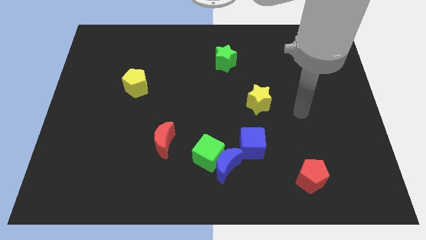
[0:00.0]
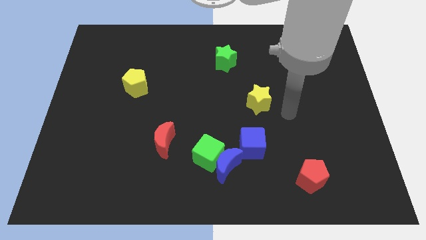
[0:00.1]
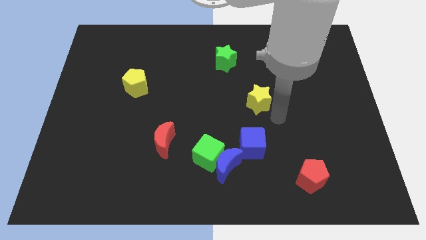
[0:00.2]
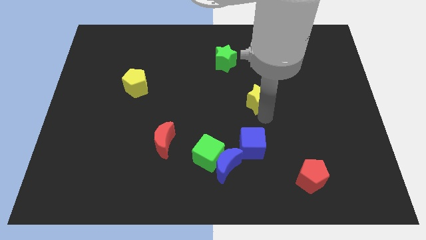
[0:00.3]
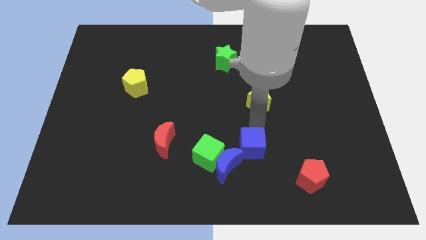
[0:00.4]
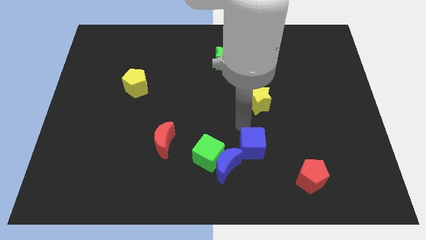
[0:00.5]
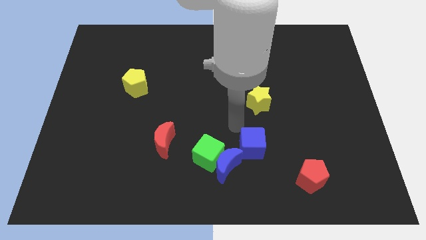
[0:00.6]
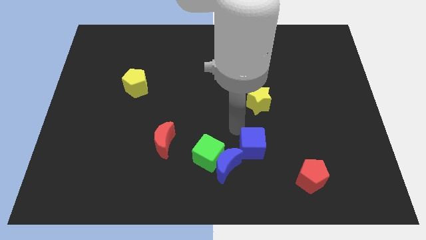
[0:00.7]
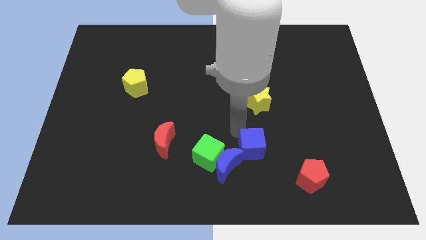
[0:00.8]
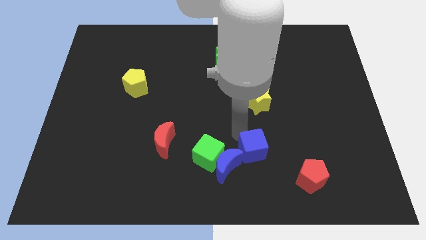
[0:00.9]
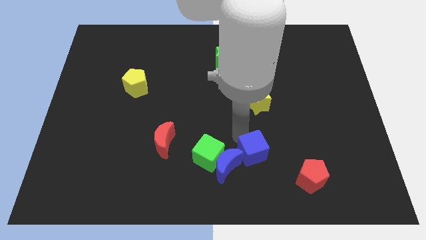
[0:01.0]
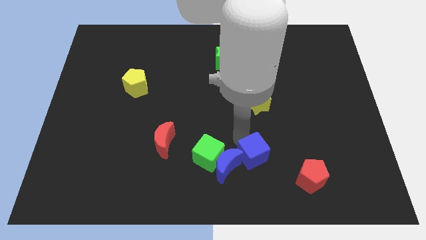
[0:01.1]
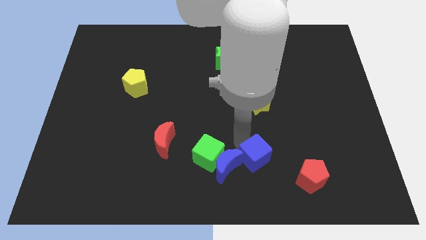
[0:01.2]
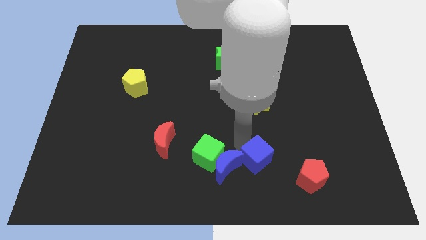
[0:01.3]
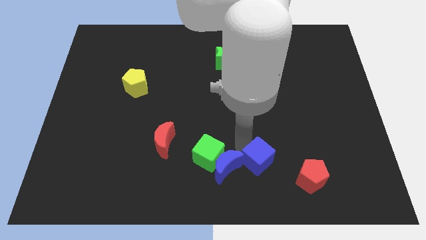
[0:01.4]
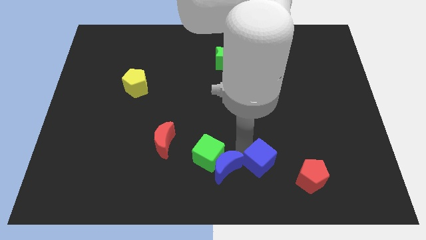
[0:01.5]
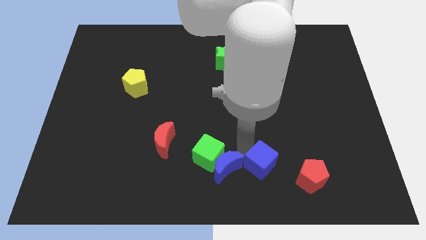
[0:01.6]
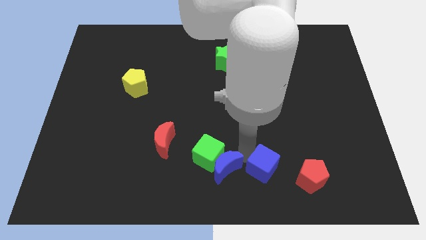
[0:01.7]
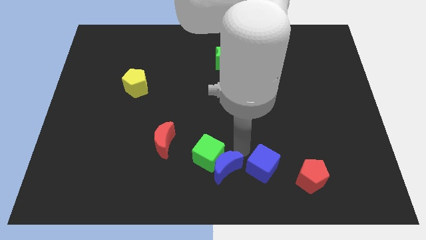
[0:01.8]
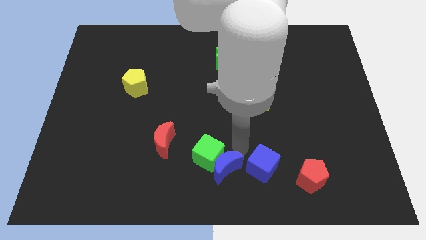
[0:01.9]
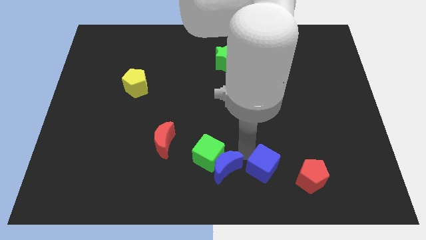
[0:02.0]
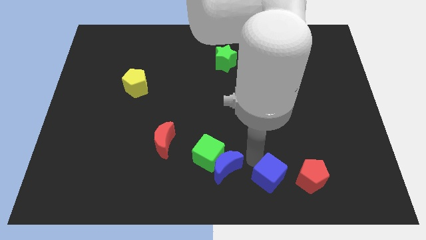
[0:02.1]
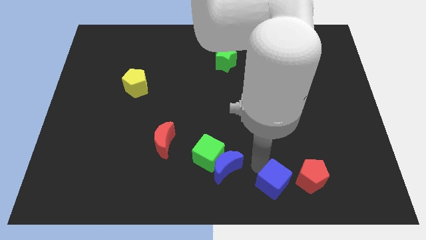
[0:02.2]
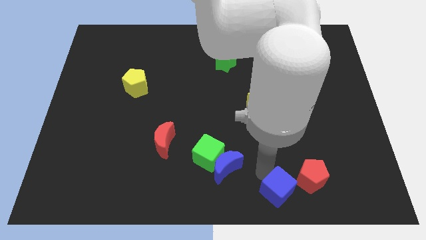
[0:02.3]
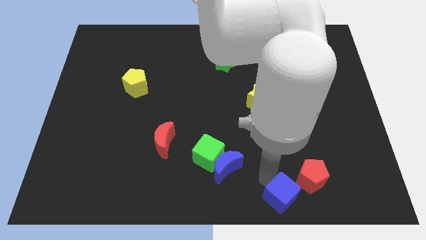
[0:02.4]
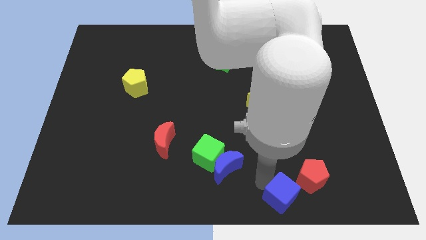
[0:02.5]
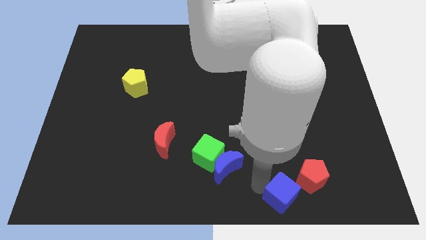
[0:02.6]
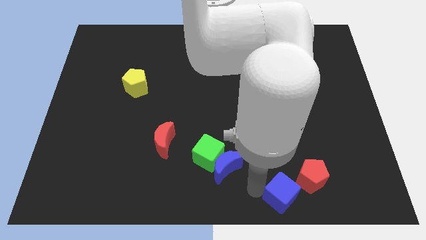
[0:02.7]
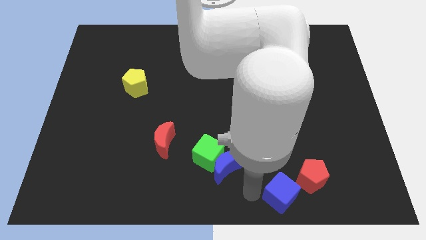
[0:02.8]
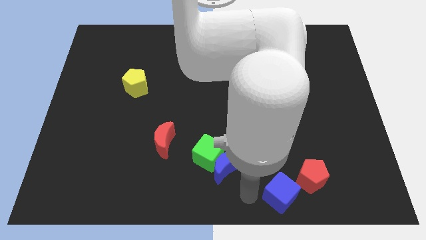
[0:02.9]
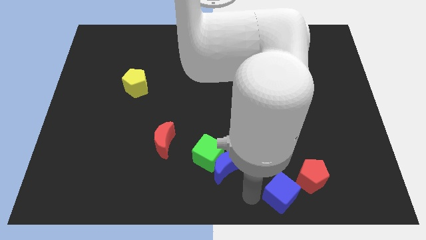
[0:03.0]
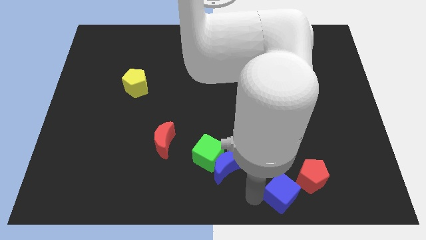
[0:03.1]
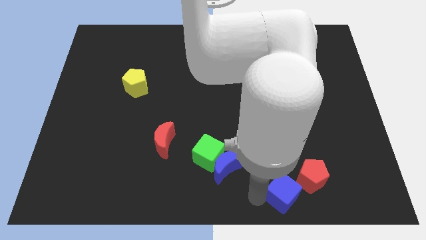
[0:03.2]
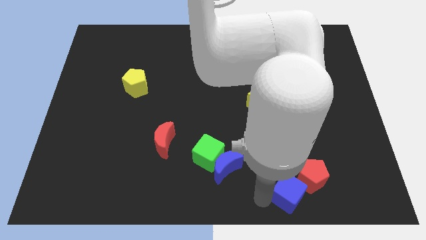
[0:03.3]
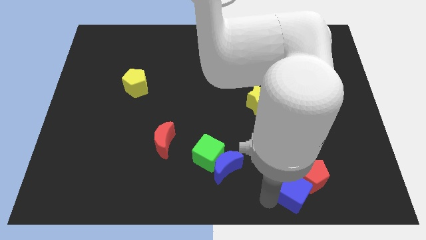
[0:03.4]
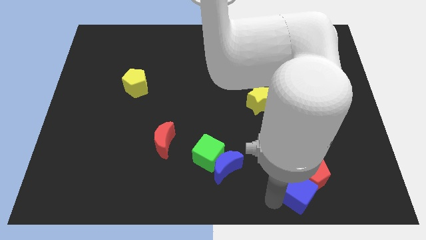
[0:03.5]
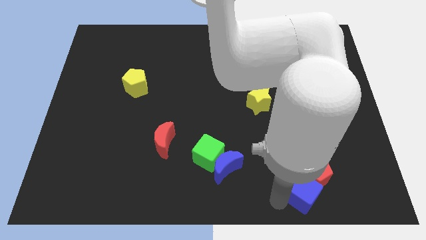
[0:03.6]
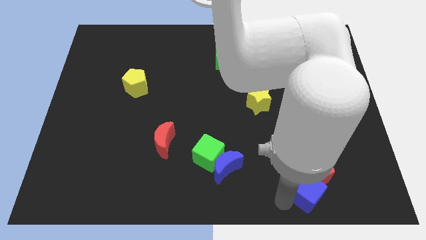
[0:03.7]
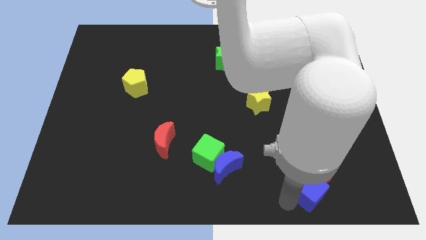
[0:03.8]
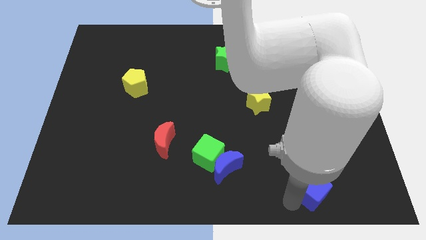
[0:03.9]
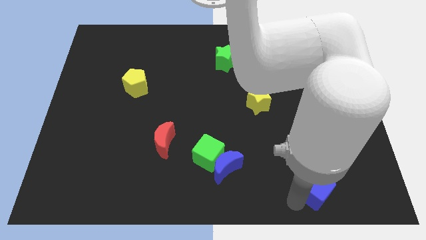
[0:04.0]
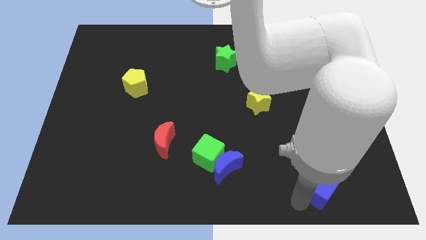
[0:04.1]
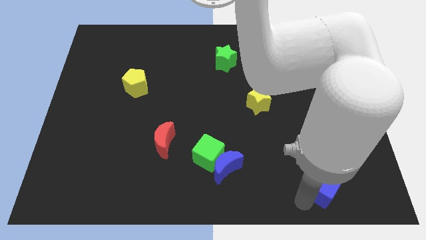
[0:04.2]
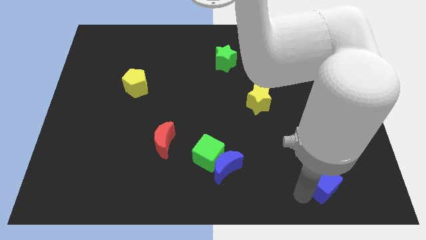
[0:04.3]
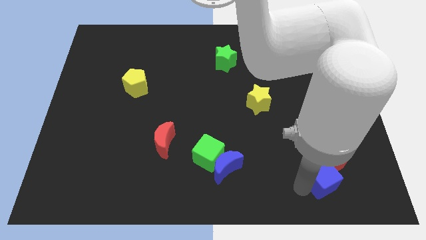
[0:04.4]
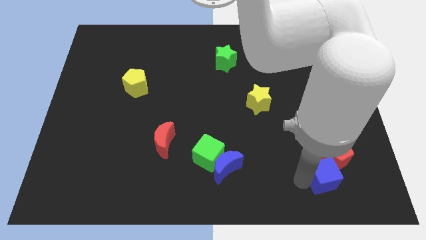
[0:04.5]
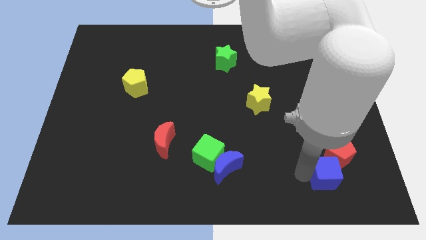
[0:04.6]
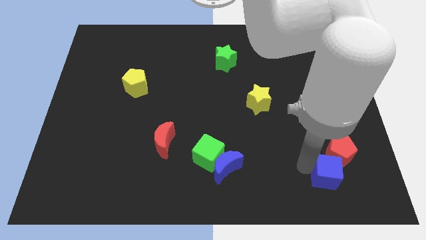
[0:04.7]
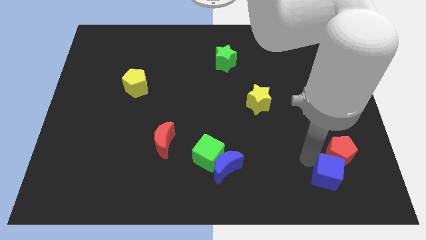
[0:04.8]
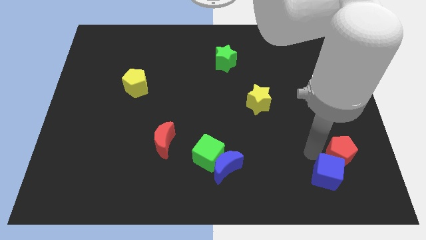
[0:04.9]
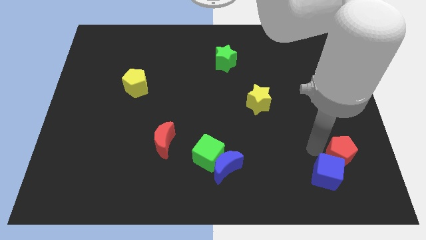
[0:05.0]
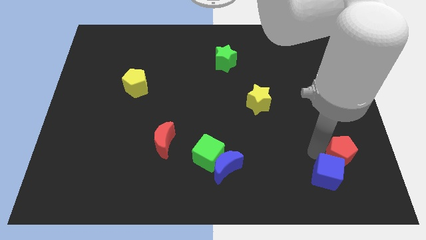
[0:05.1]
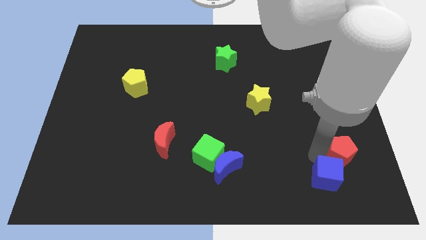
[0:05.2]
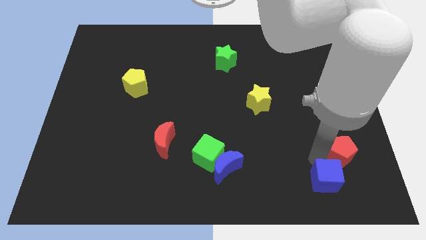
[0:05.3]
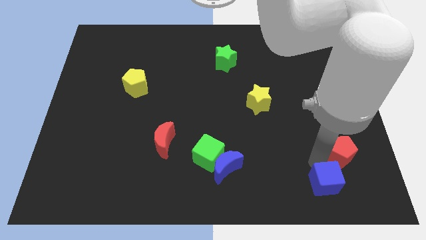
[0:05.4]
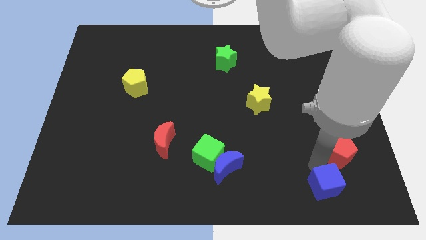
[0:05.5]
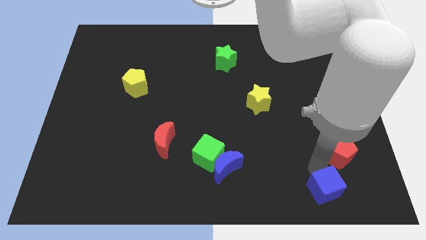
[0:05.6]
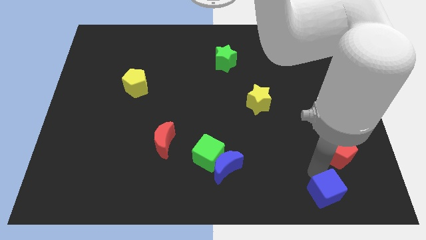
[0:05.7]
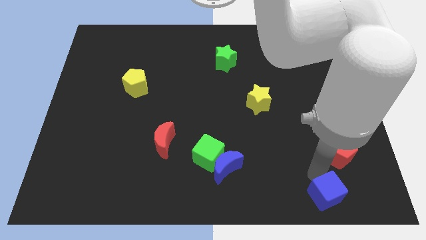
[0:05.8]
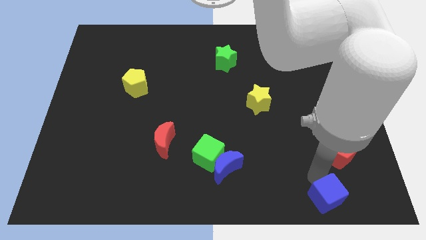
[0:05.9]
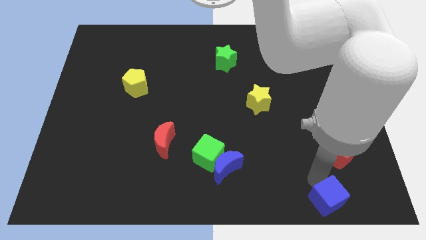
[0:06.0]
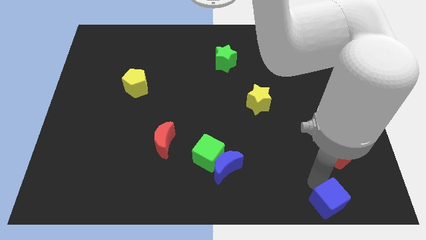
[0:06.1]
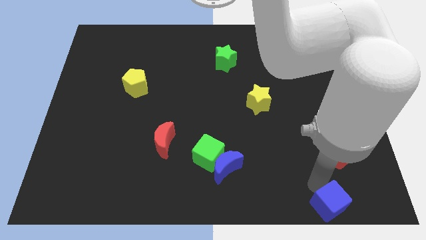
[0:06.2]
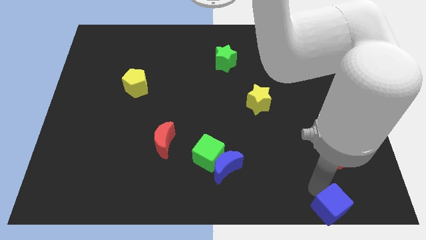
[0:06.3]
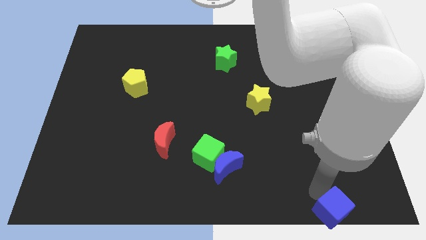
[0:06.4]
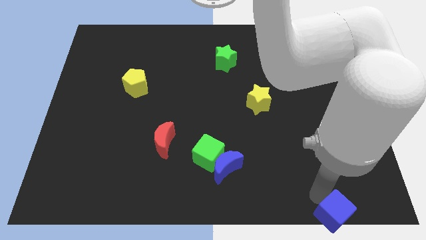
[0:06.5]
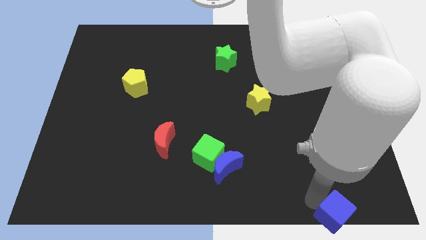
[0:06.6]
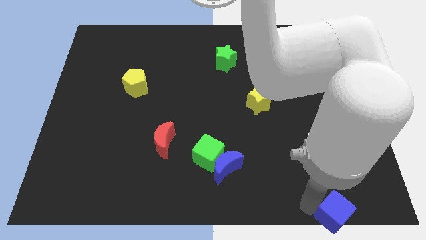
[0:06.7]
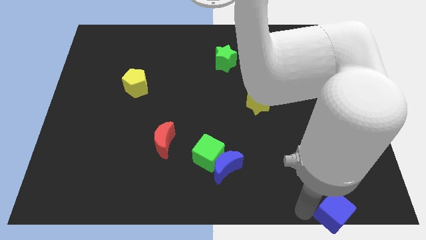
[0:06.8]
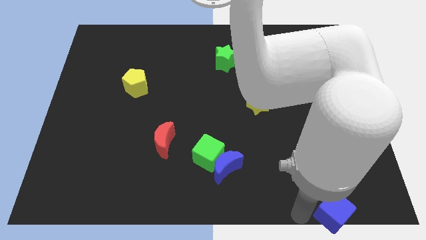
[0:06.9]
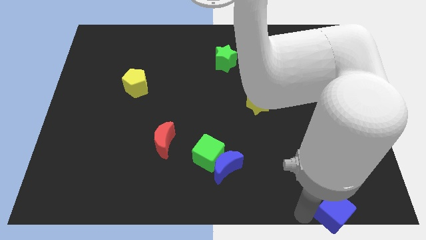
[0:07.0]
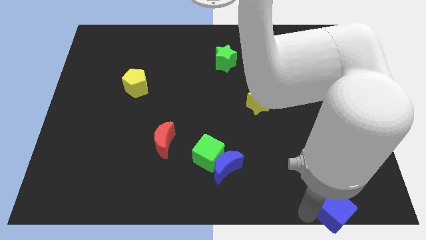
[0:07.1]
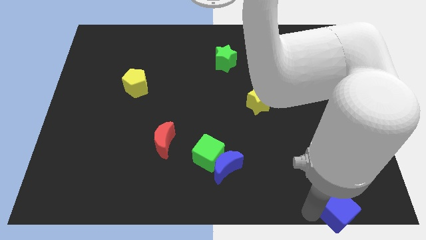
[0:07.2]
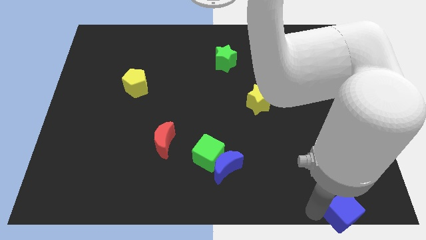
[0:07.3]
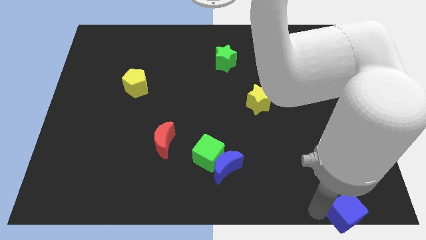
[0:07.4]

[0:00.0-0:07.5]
push the blue cube to the bottom right corner

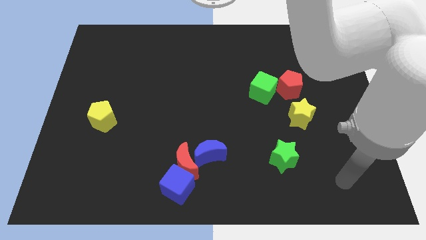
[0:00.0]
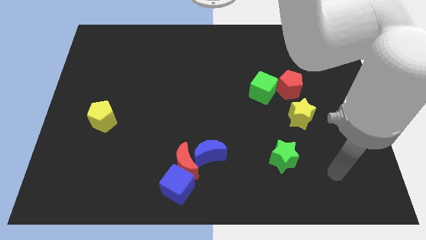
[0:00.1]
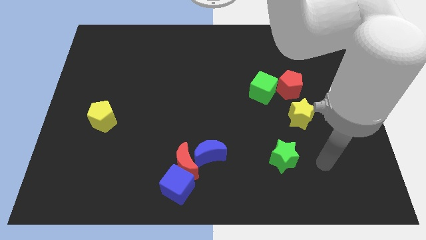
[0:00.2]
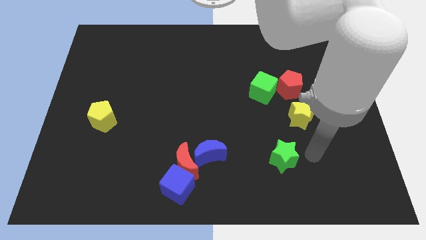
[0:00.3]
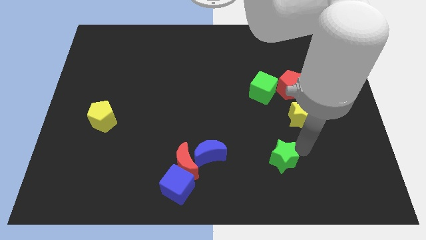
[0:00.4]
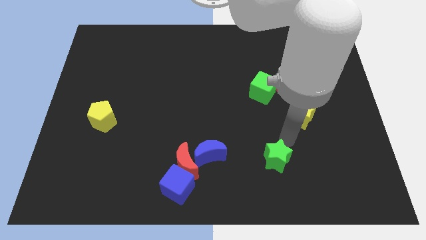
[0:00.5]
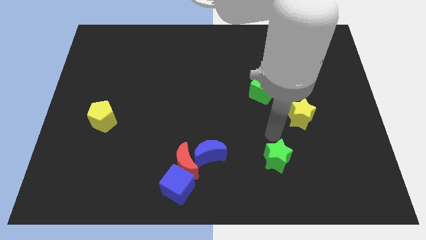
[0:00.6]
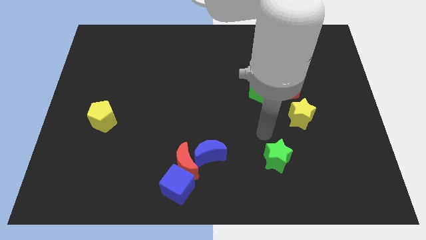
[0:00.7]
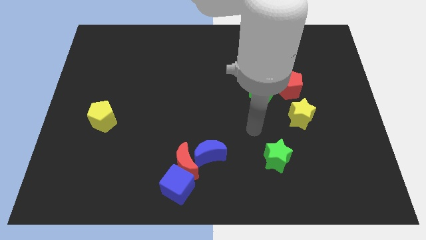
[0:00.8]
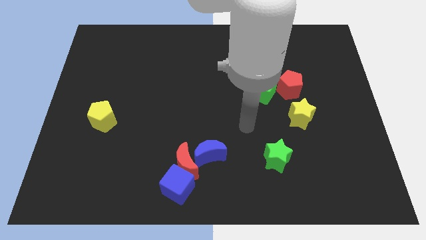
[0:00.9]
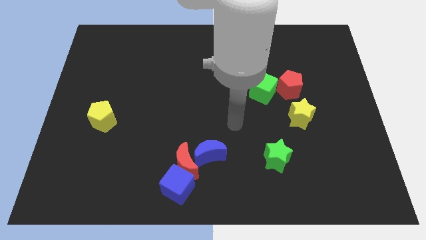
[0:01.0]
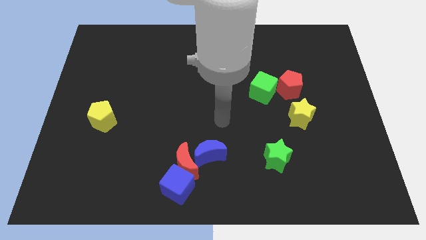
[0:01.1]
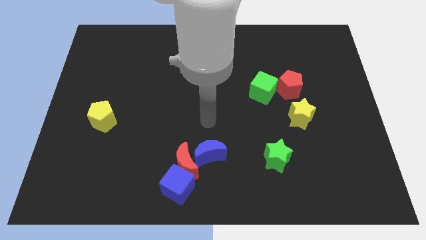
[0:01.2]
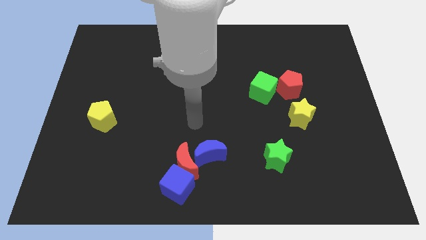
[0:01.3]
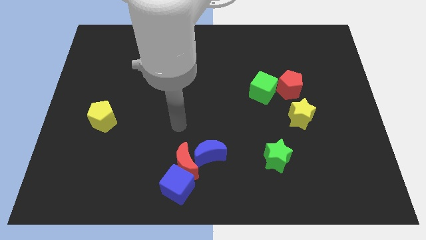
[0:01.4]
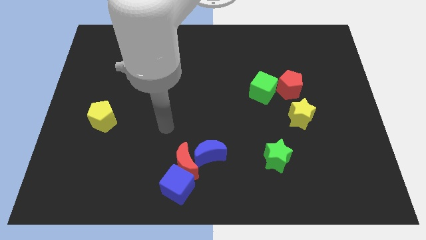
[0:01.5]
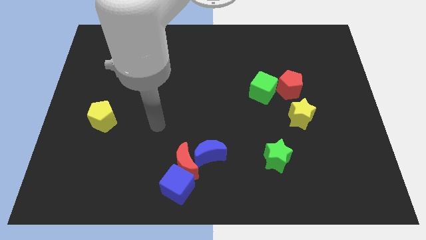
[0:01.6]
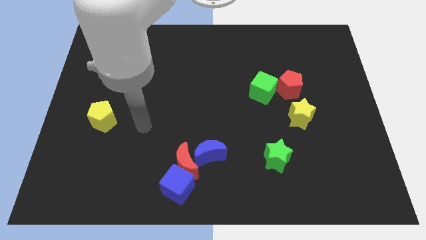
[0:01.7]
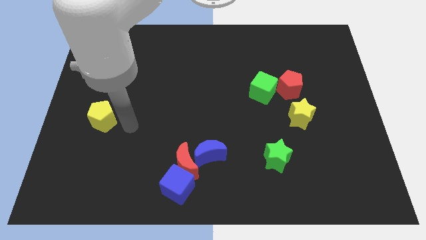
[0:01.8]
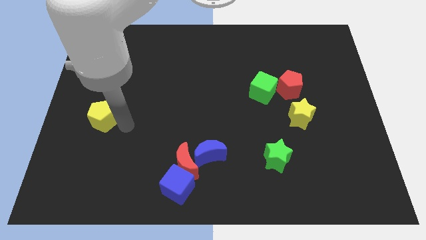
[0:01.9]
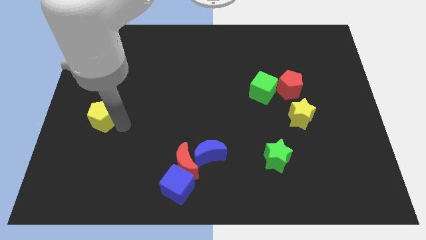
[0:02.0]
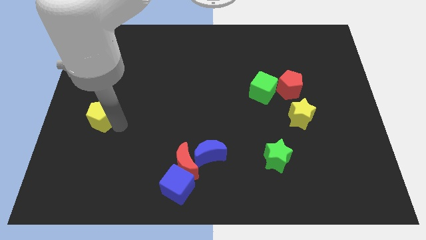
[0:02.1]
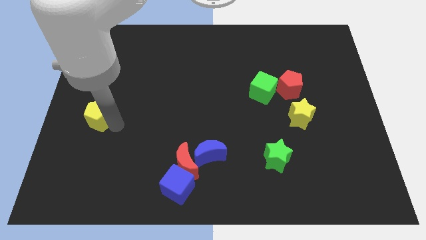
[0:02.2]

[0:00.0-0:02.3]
push the yellow pentagon to the center left
